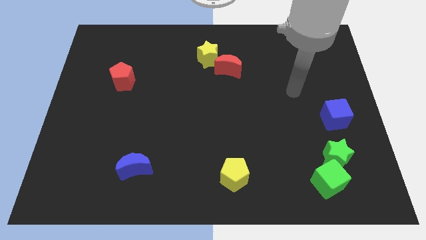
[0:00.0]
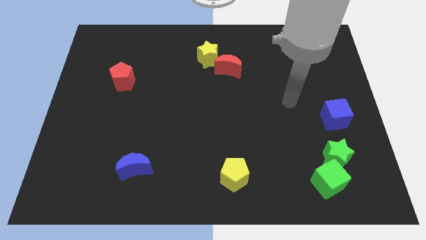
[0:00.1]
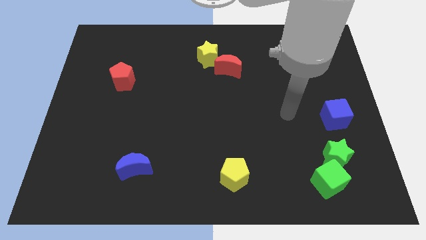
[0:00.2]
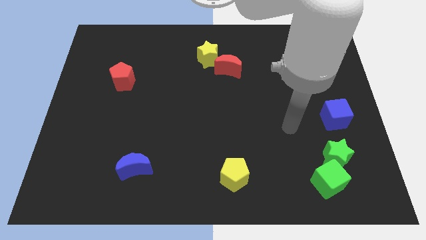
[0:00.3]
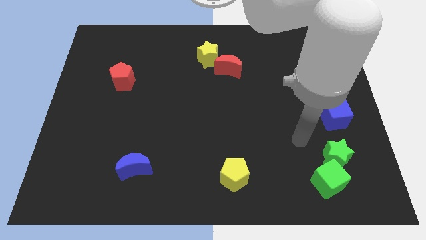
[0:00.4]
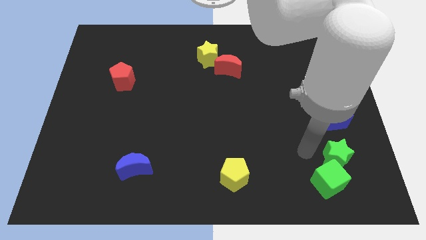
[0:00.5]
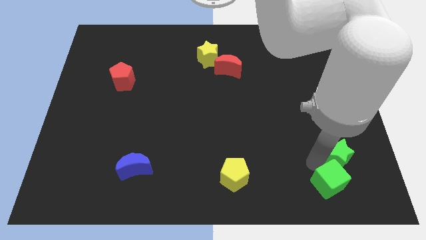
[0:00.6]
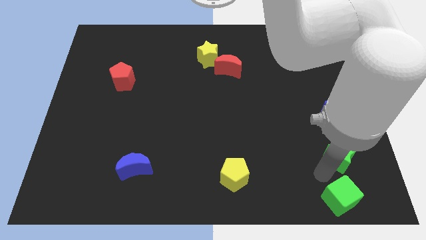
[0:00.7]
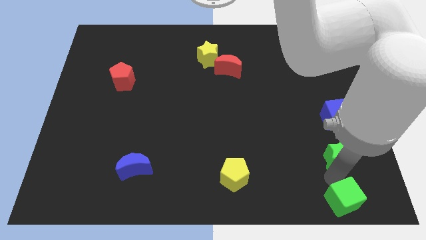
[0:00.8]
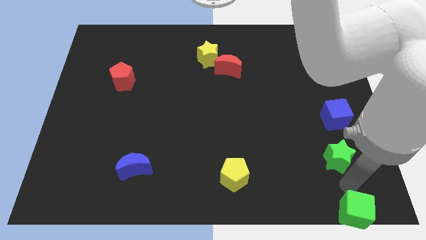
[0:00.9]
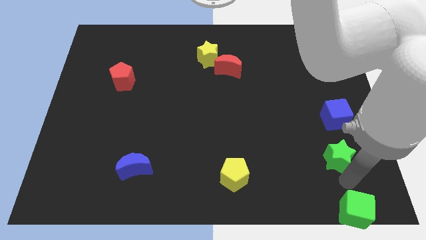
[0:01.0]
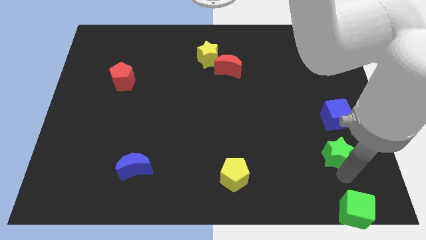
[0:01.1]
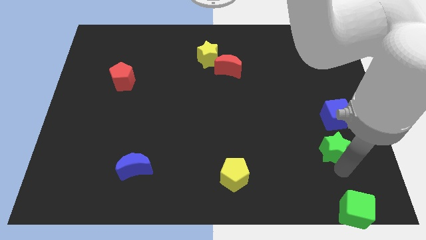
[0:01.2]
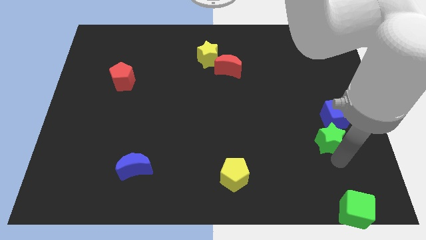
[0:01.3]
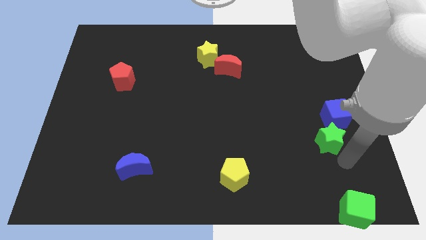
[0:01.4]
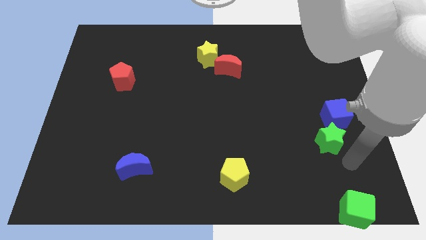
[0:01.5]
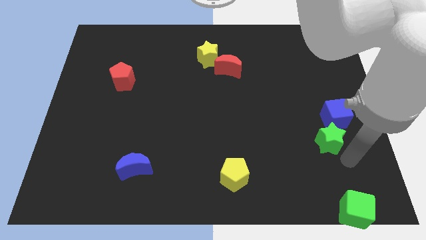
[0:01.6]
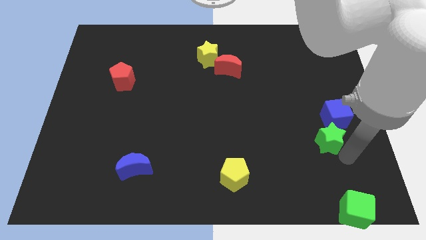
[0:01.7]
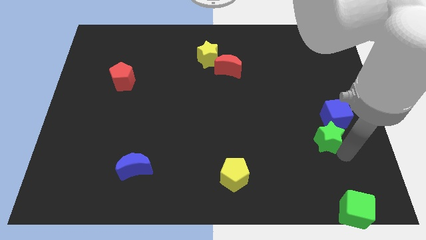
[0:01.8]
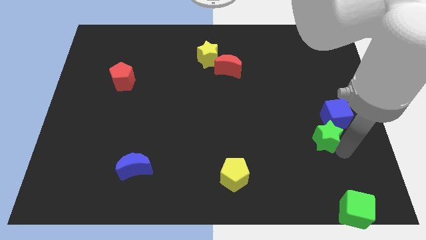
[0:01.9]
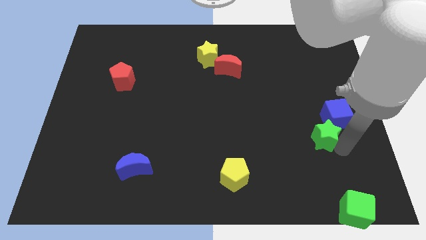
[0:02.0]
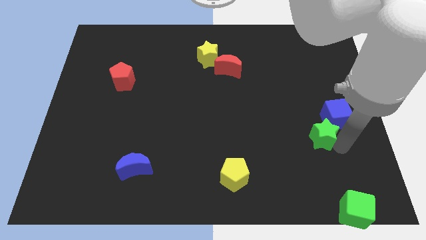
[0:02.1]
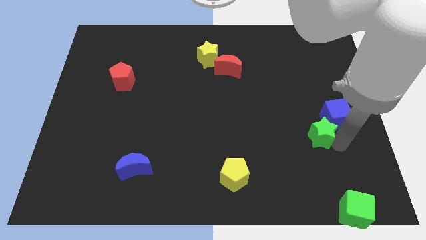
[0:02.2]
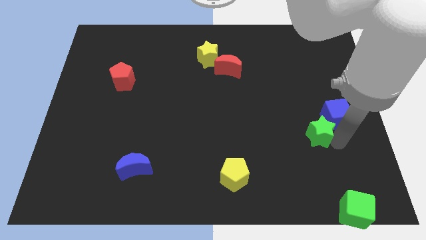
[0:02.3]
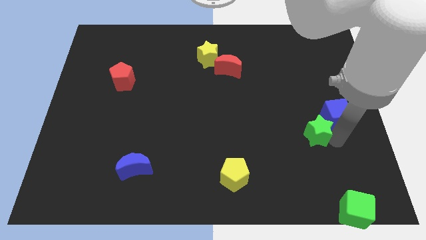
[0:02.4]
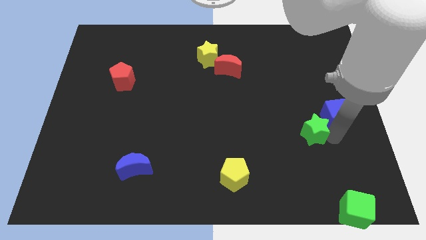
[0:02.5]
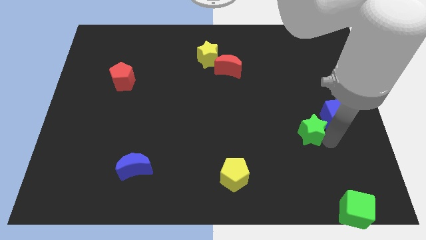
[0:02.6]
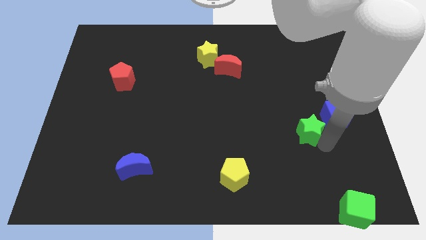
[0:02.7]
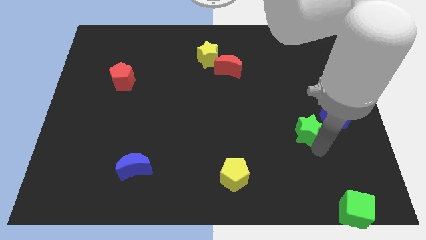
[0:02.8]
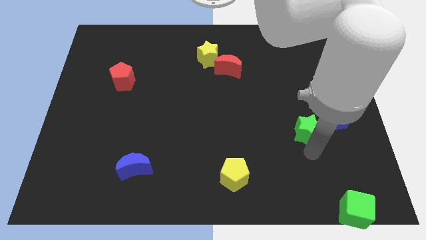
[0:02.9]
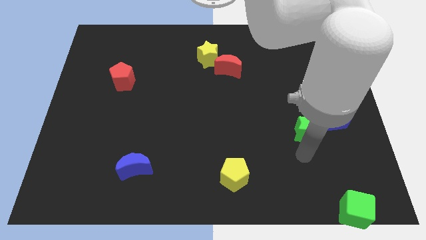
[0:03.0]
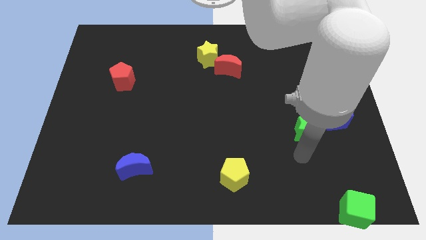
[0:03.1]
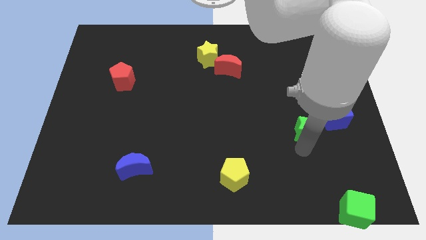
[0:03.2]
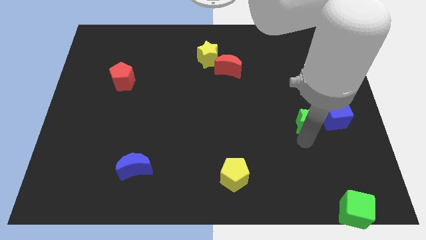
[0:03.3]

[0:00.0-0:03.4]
slightly push the green star up

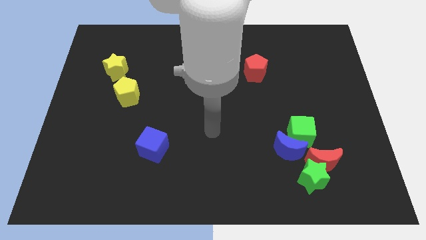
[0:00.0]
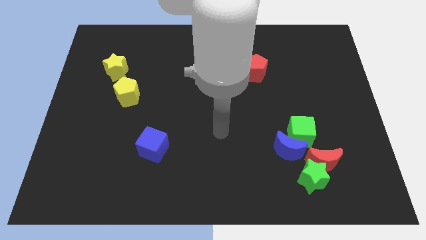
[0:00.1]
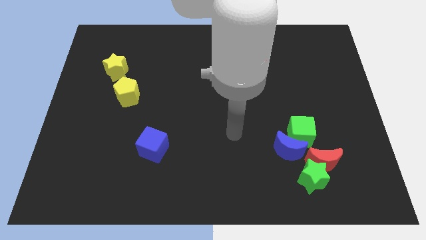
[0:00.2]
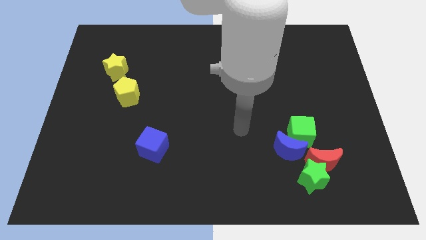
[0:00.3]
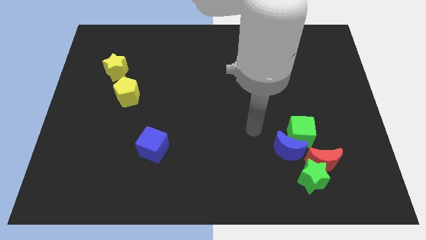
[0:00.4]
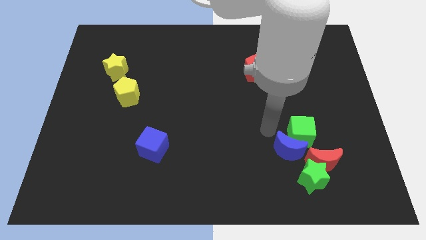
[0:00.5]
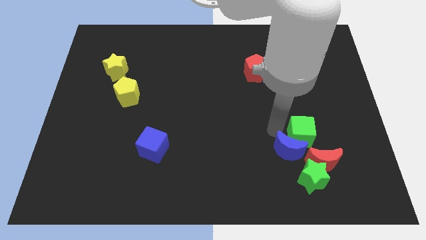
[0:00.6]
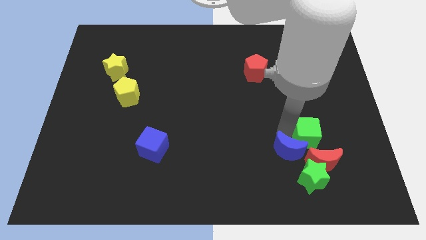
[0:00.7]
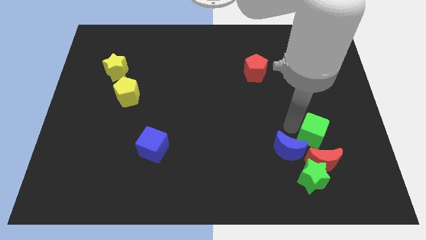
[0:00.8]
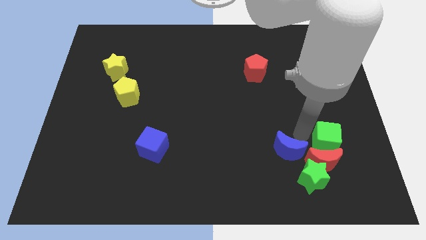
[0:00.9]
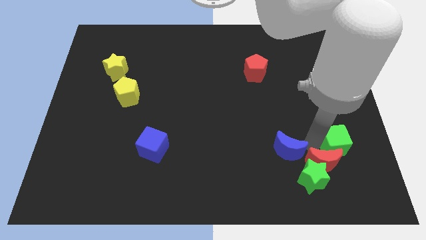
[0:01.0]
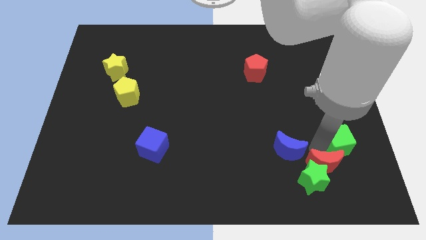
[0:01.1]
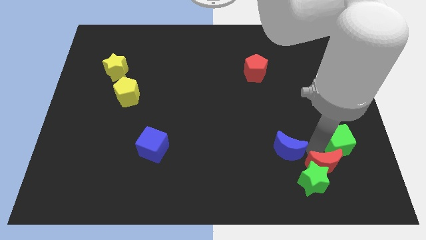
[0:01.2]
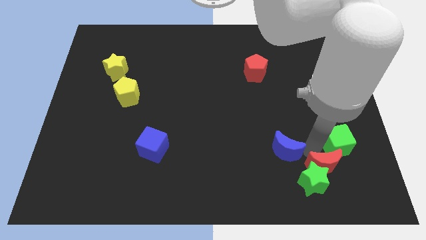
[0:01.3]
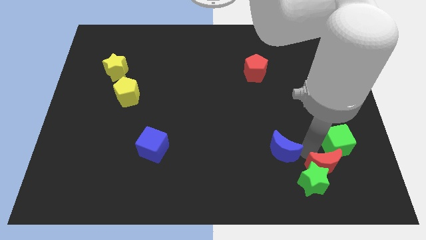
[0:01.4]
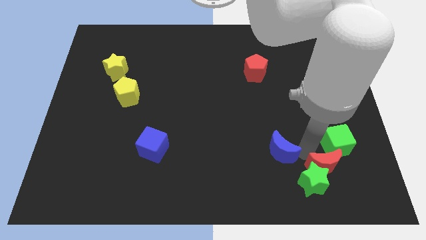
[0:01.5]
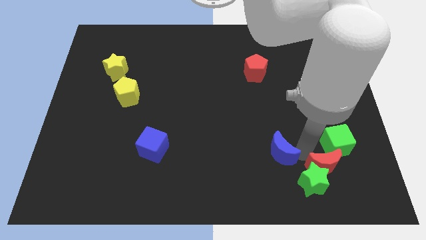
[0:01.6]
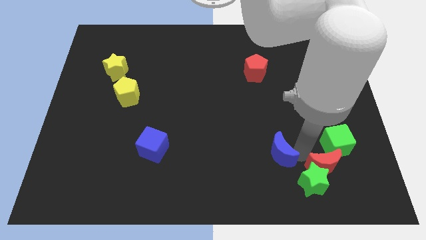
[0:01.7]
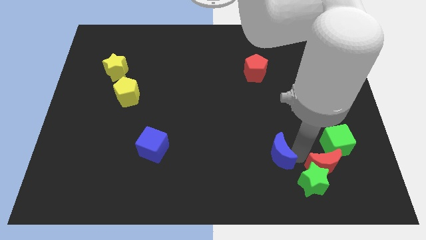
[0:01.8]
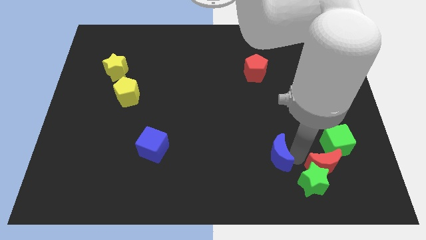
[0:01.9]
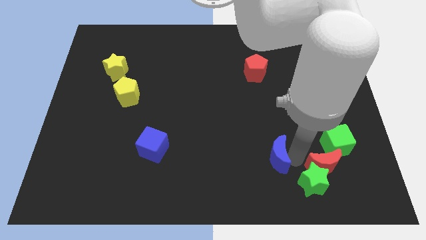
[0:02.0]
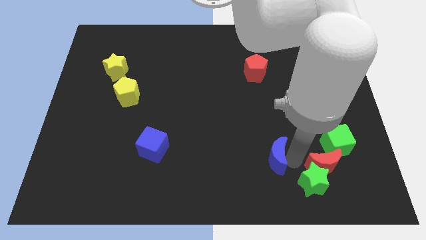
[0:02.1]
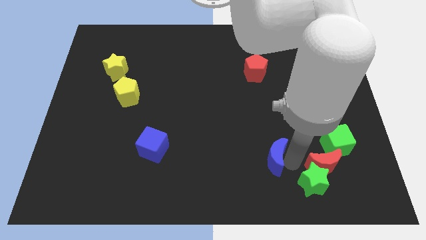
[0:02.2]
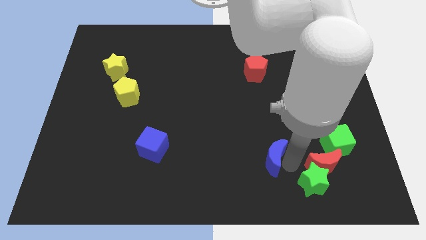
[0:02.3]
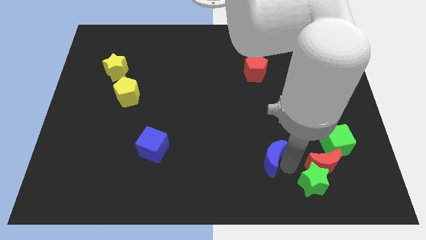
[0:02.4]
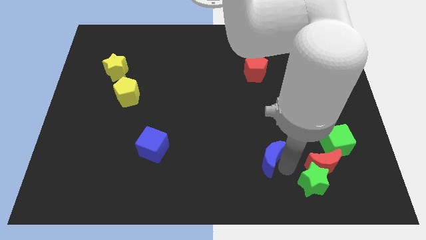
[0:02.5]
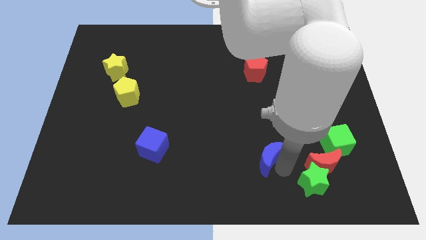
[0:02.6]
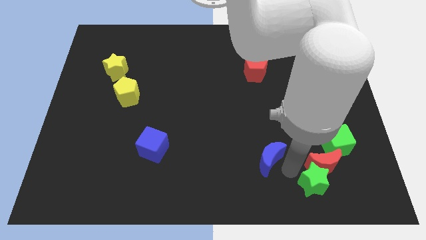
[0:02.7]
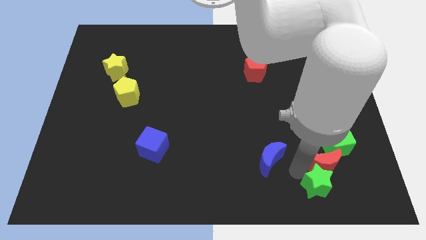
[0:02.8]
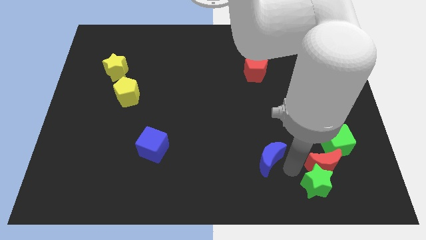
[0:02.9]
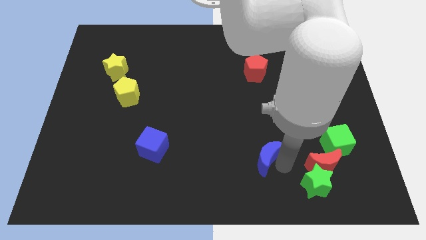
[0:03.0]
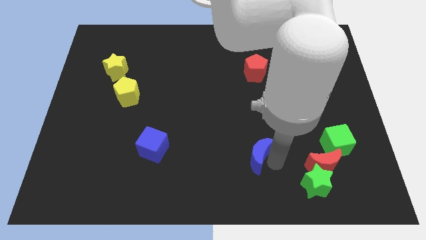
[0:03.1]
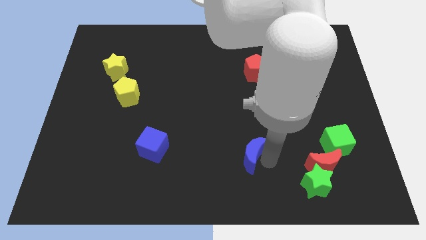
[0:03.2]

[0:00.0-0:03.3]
slightly slide the blue moon to the left

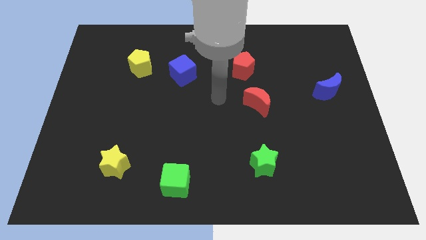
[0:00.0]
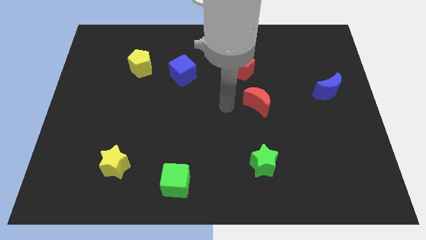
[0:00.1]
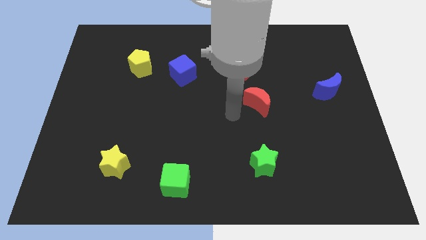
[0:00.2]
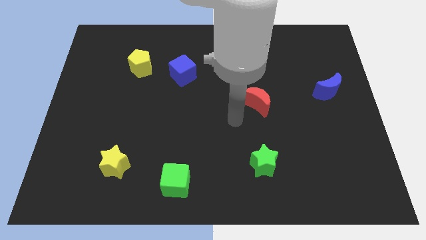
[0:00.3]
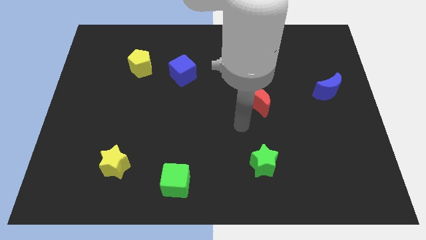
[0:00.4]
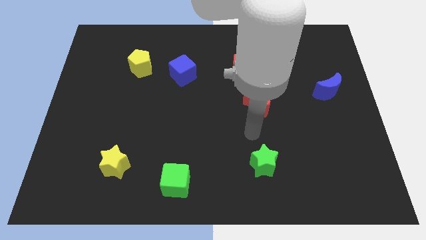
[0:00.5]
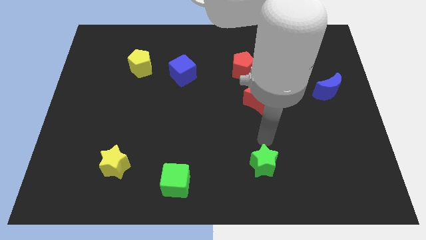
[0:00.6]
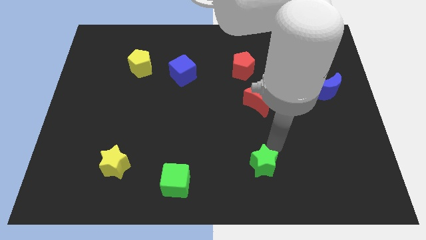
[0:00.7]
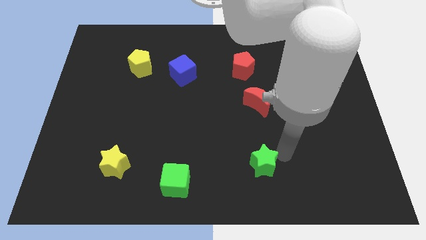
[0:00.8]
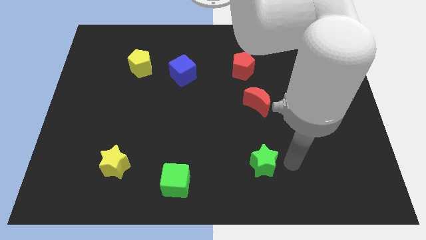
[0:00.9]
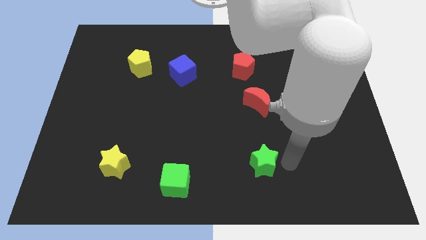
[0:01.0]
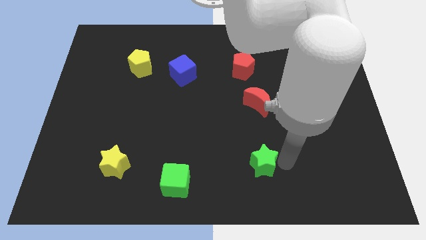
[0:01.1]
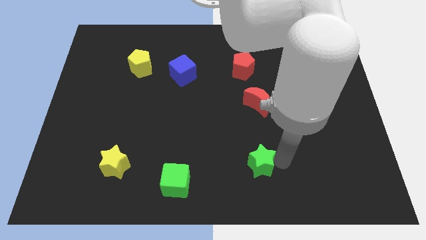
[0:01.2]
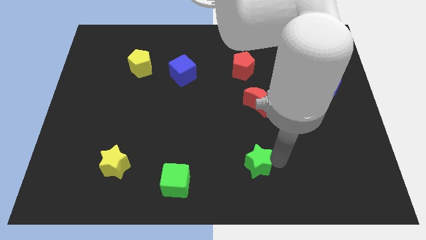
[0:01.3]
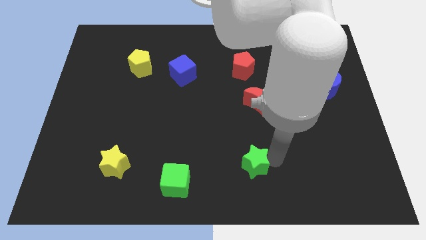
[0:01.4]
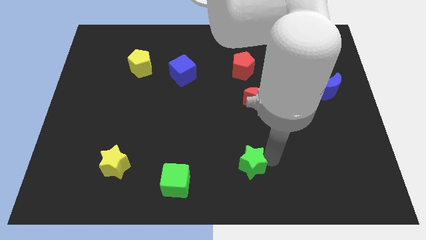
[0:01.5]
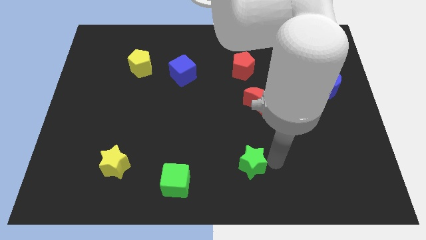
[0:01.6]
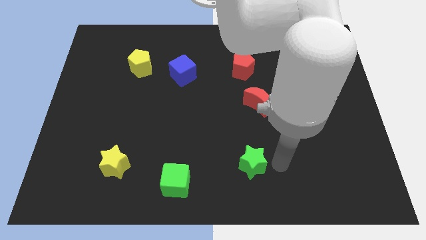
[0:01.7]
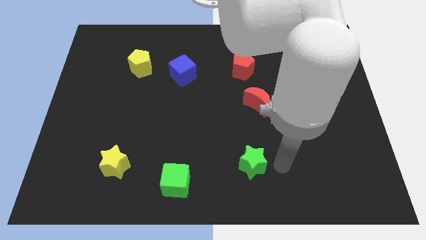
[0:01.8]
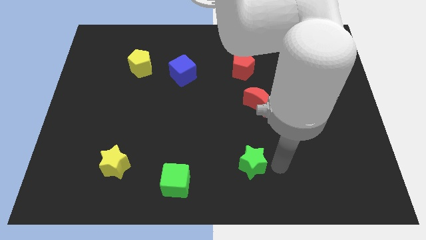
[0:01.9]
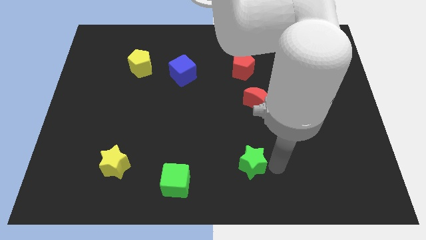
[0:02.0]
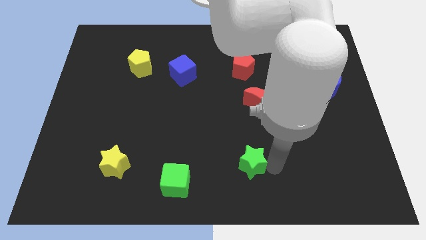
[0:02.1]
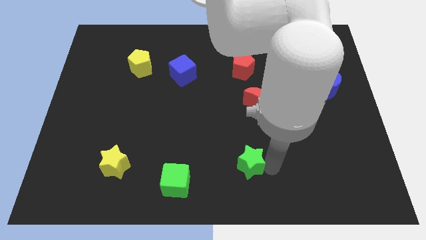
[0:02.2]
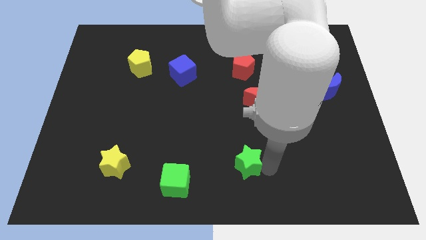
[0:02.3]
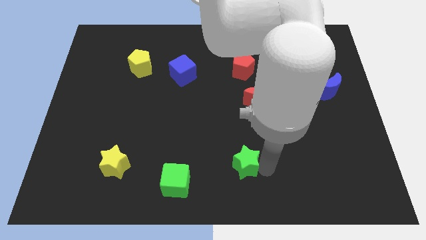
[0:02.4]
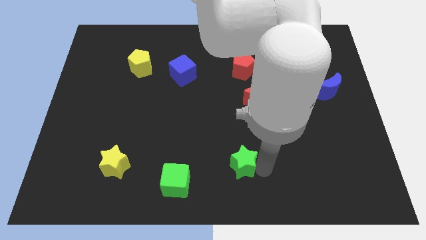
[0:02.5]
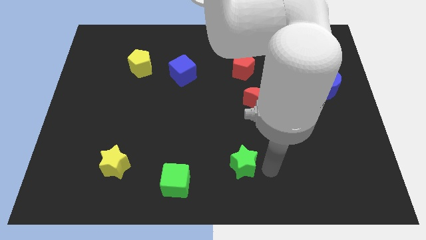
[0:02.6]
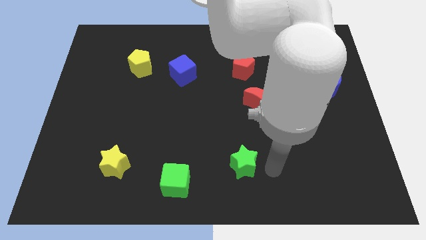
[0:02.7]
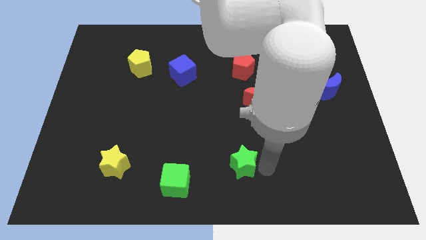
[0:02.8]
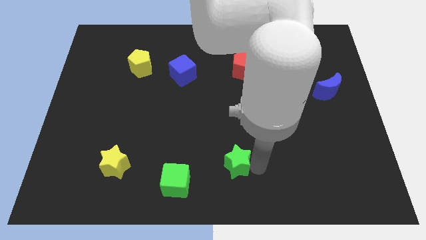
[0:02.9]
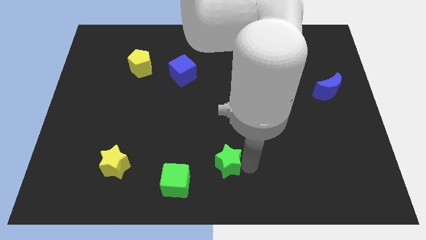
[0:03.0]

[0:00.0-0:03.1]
move the green star a bit left
